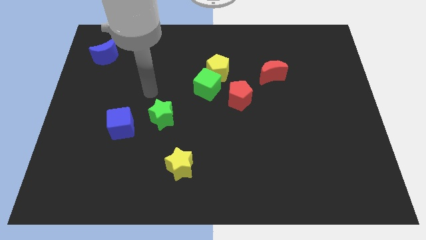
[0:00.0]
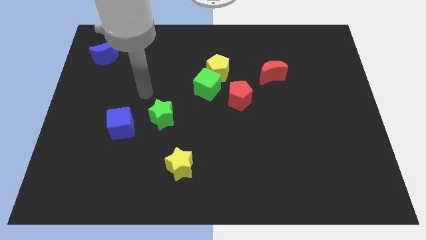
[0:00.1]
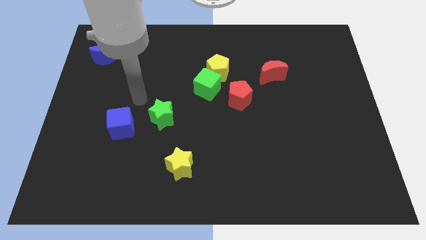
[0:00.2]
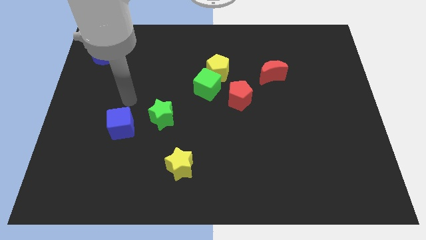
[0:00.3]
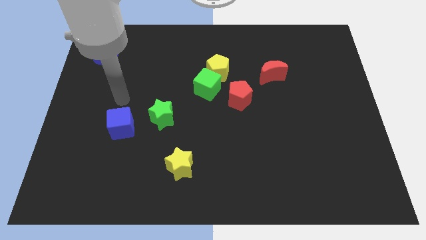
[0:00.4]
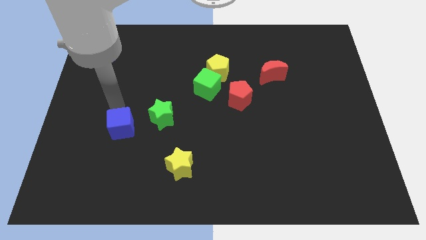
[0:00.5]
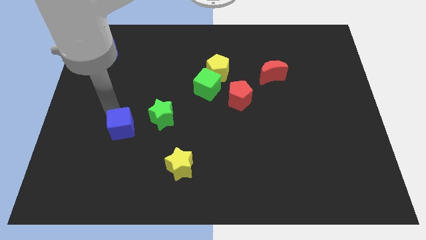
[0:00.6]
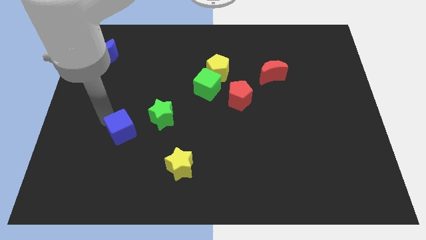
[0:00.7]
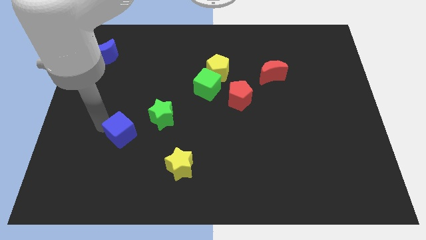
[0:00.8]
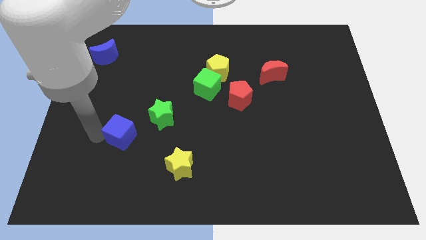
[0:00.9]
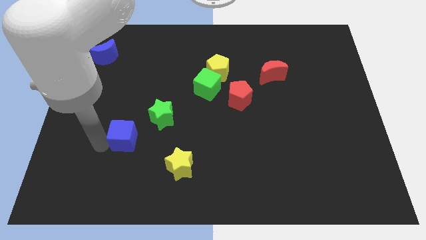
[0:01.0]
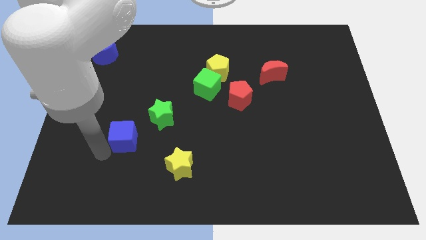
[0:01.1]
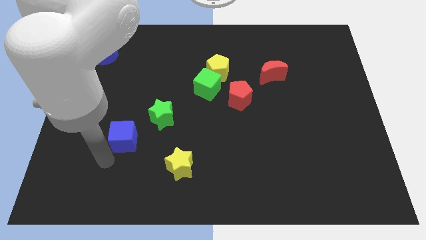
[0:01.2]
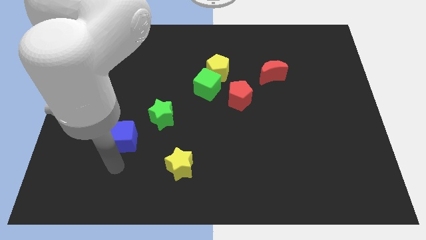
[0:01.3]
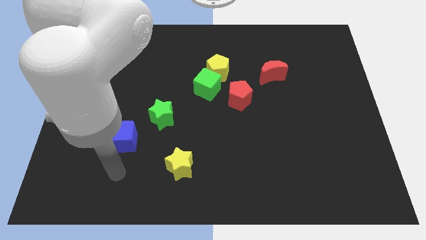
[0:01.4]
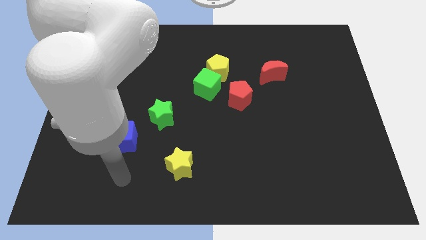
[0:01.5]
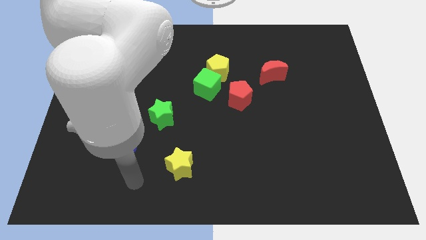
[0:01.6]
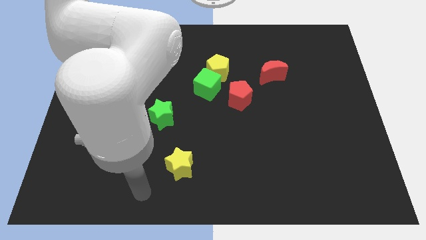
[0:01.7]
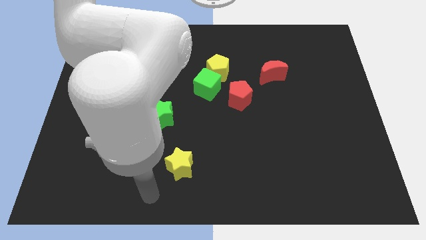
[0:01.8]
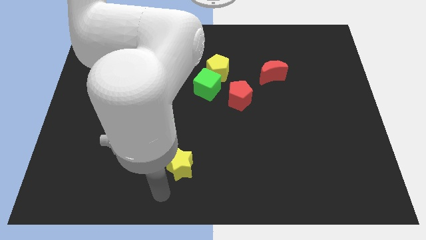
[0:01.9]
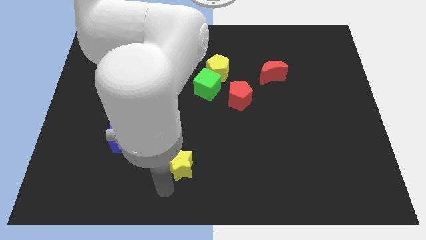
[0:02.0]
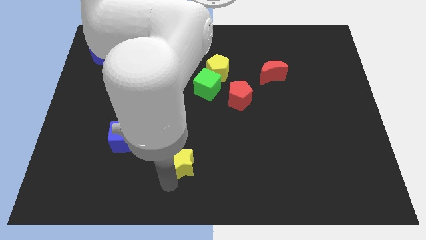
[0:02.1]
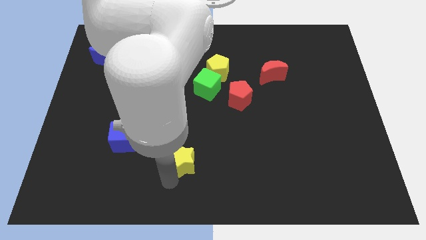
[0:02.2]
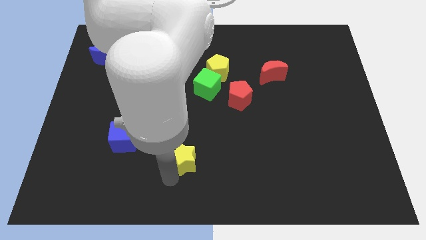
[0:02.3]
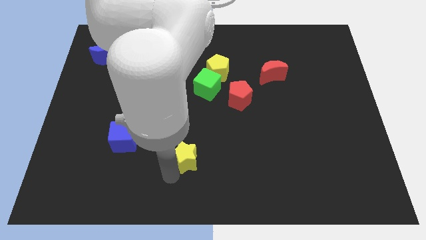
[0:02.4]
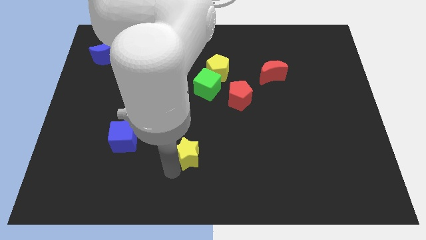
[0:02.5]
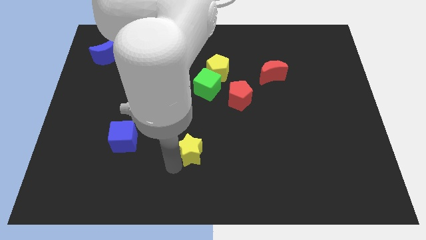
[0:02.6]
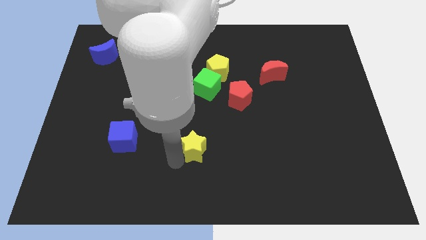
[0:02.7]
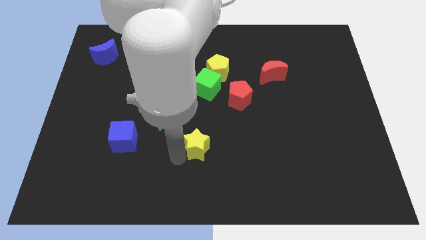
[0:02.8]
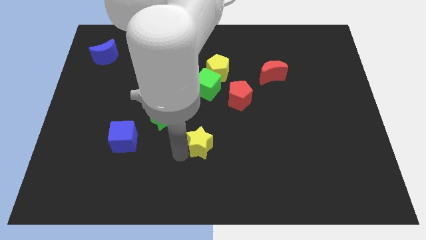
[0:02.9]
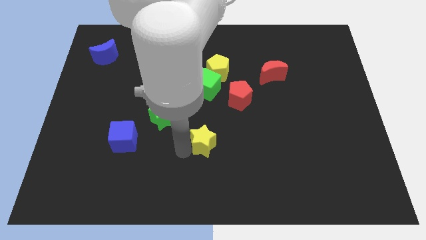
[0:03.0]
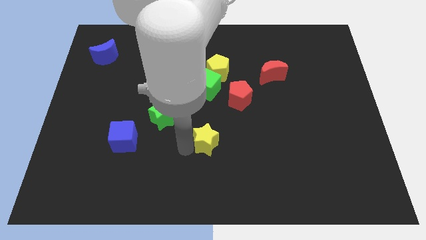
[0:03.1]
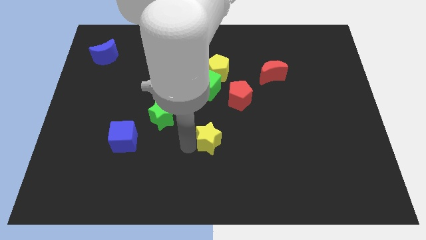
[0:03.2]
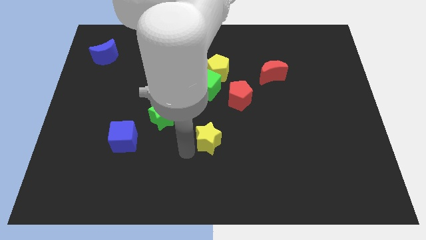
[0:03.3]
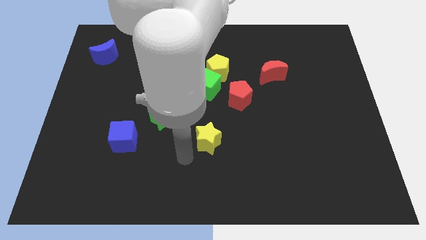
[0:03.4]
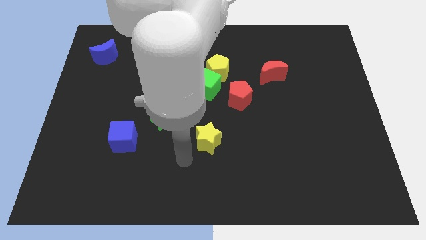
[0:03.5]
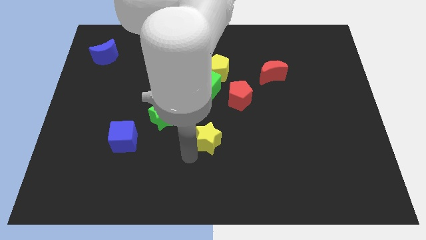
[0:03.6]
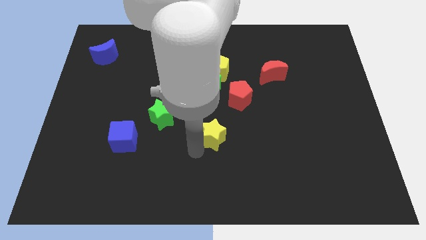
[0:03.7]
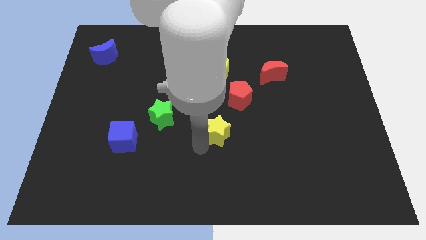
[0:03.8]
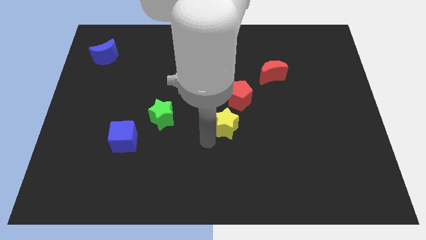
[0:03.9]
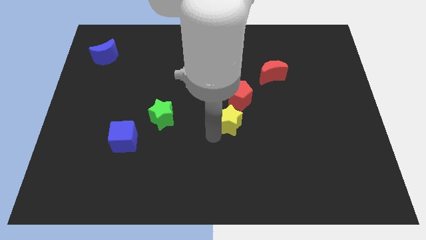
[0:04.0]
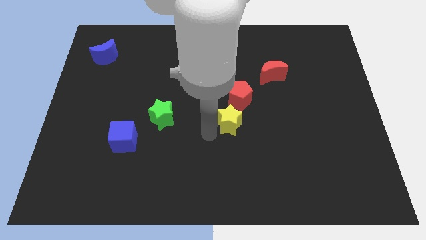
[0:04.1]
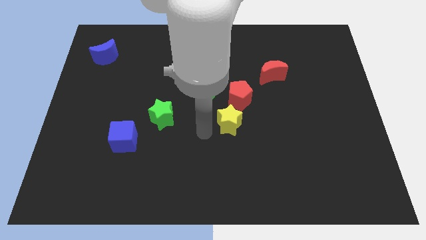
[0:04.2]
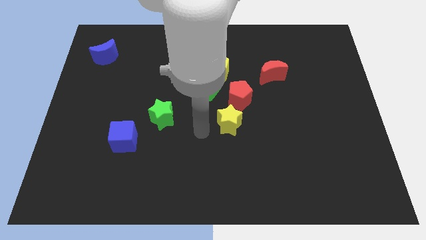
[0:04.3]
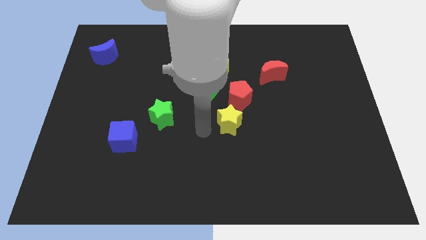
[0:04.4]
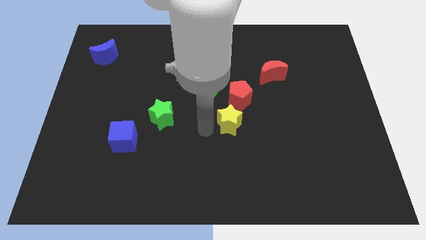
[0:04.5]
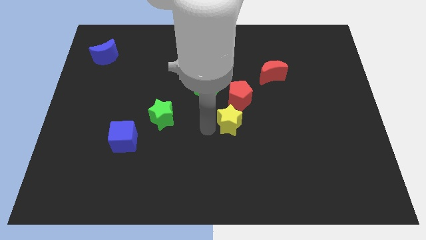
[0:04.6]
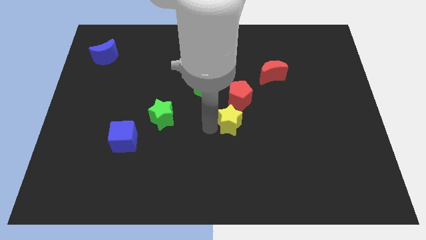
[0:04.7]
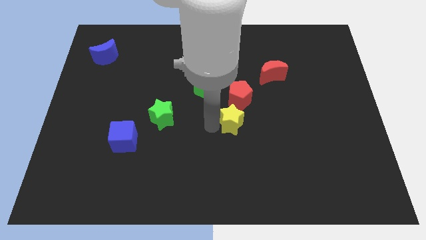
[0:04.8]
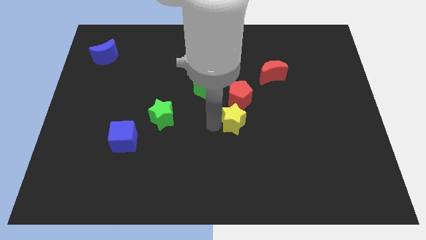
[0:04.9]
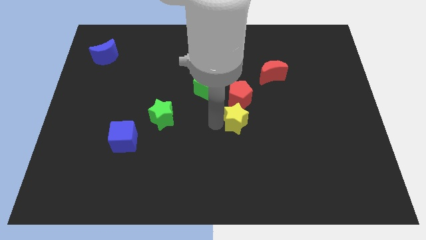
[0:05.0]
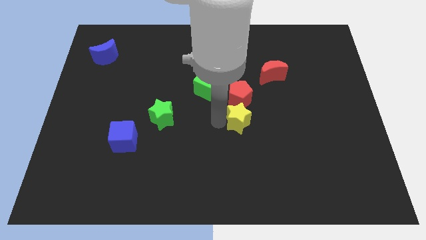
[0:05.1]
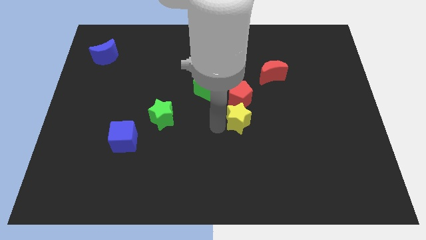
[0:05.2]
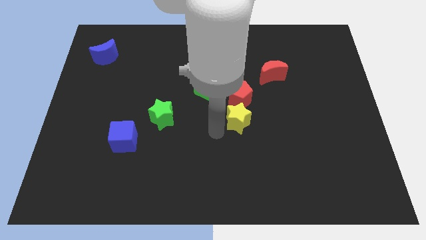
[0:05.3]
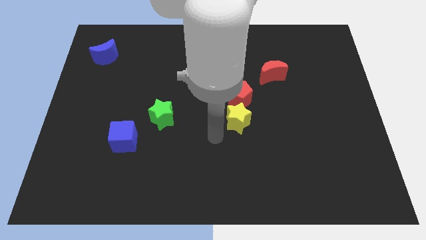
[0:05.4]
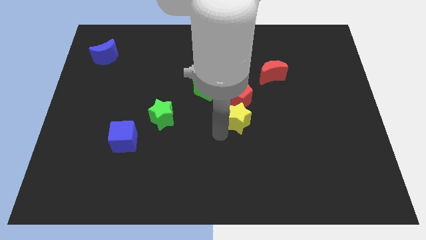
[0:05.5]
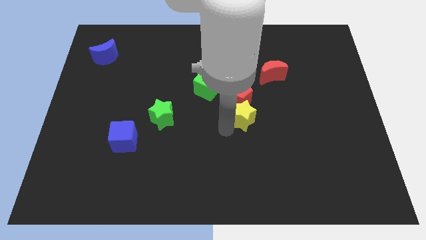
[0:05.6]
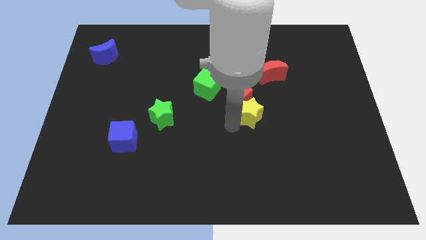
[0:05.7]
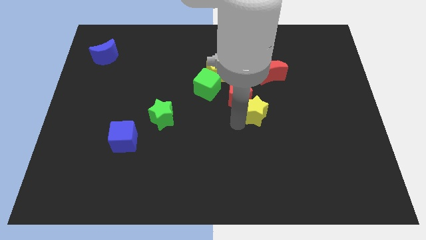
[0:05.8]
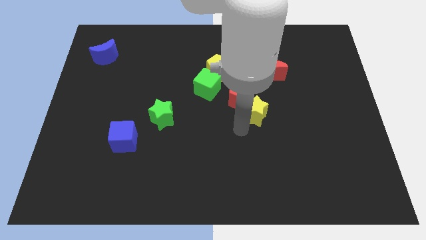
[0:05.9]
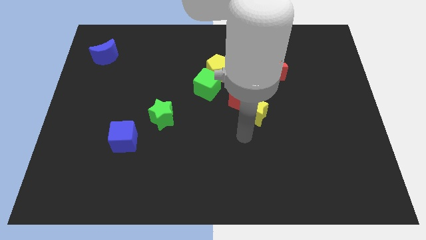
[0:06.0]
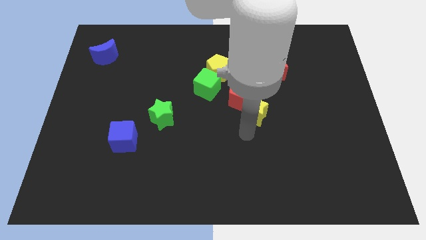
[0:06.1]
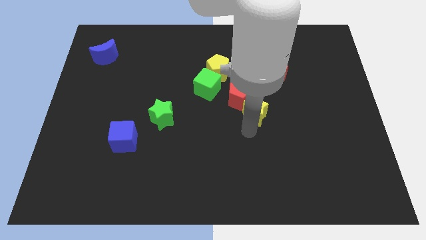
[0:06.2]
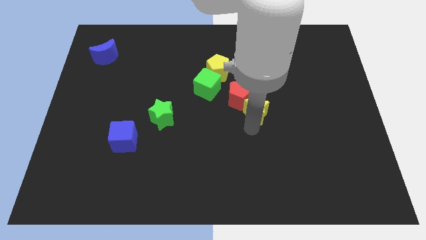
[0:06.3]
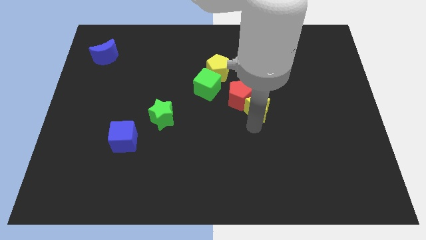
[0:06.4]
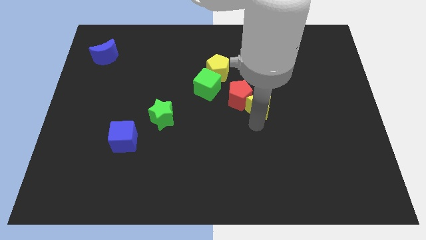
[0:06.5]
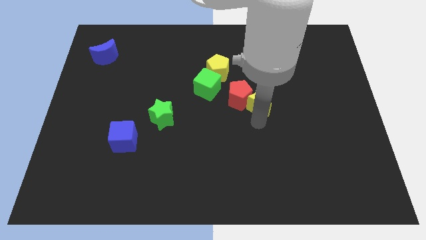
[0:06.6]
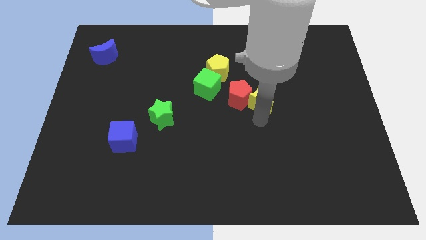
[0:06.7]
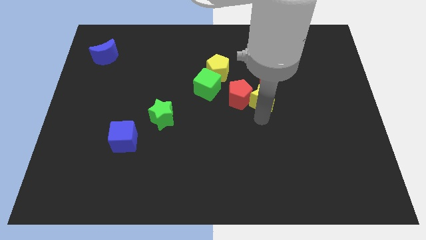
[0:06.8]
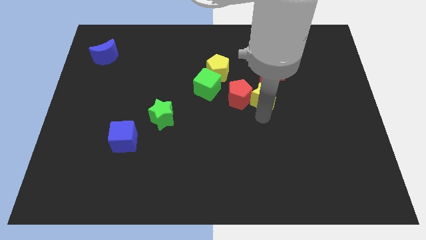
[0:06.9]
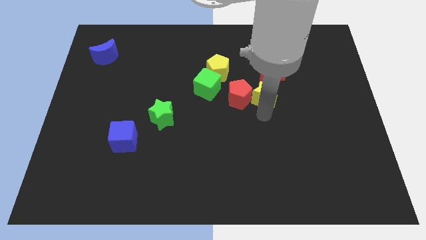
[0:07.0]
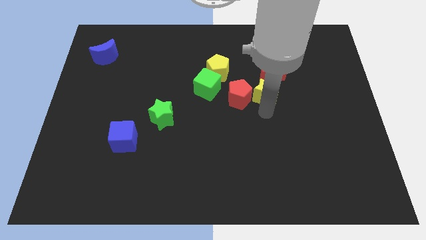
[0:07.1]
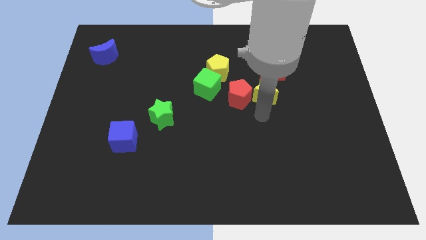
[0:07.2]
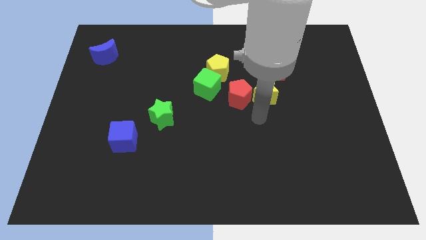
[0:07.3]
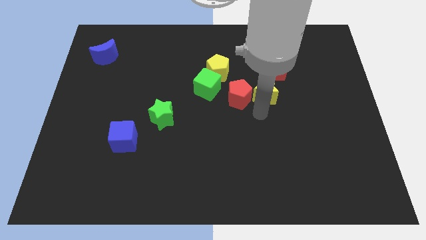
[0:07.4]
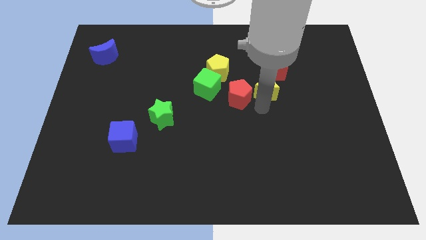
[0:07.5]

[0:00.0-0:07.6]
slide the yellow star close to the red moon

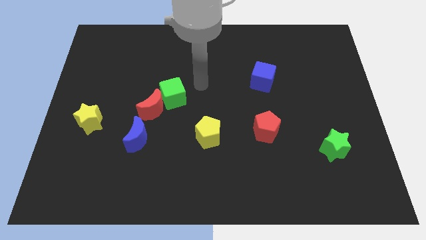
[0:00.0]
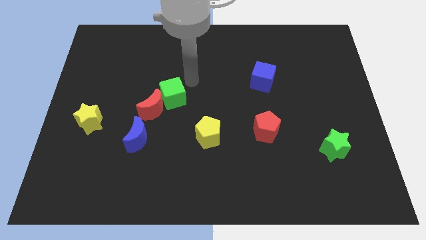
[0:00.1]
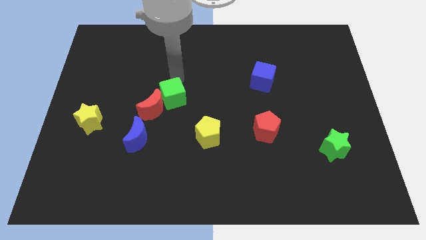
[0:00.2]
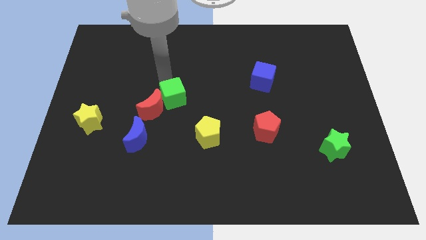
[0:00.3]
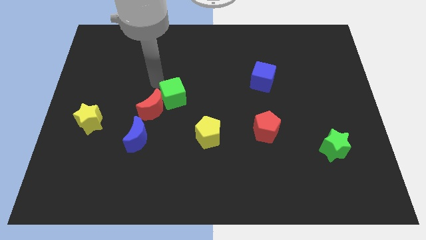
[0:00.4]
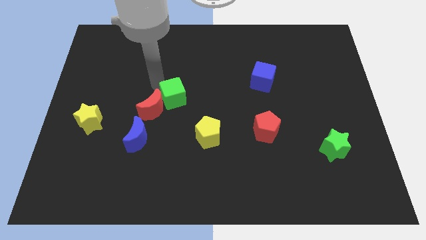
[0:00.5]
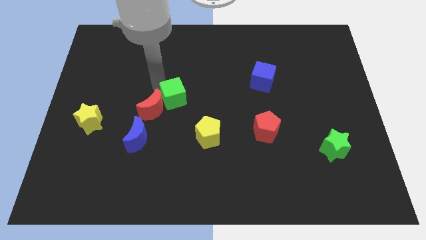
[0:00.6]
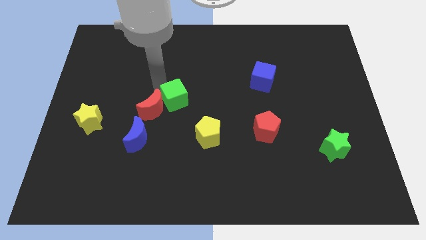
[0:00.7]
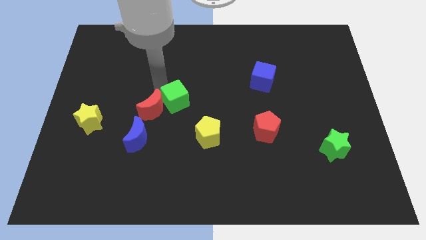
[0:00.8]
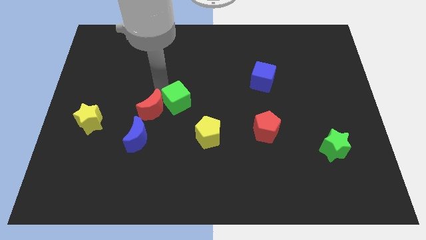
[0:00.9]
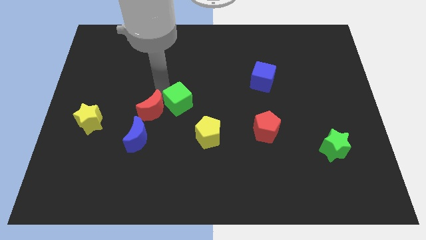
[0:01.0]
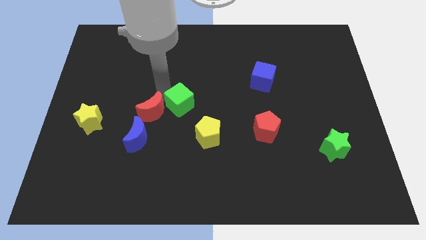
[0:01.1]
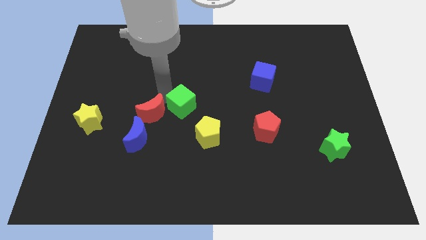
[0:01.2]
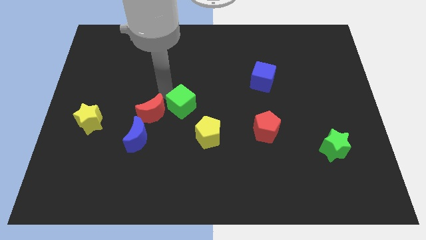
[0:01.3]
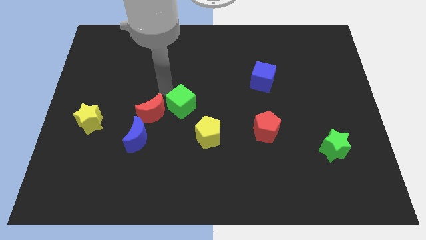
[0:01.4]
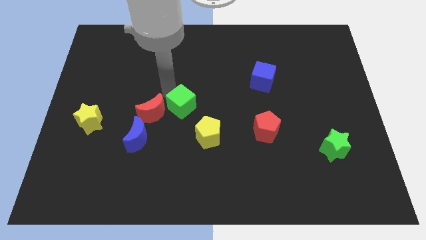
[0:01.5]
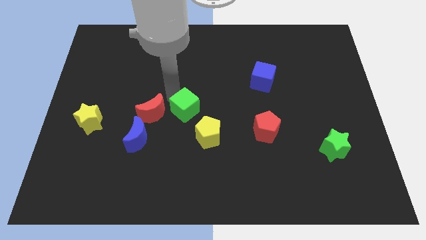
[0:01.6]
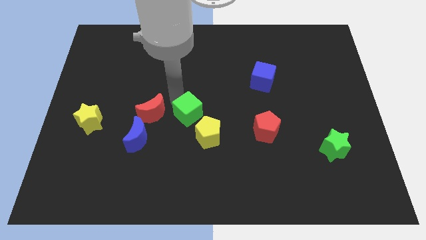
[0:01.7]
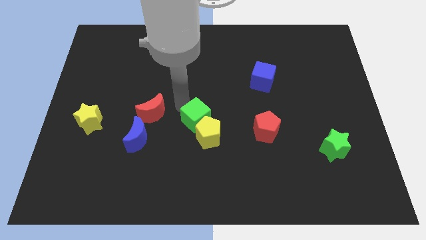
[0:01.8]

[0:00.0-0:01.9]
push the green cube towards the yellow pentagon
